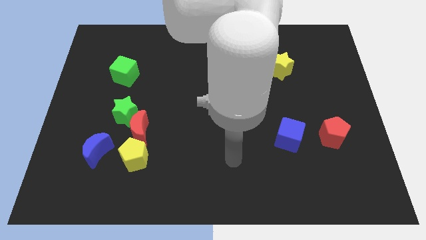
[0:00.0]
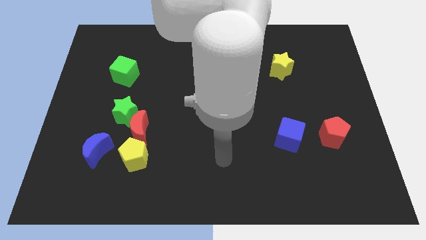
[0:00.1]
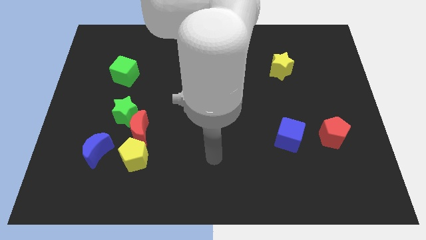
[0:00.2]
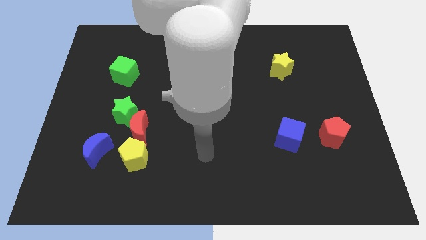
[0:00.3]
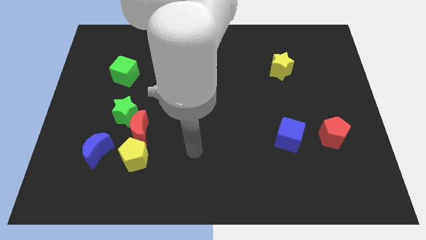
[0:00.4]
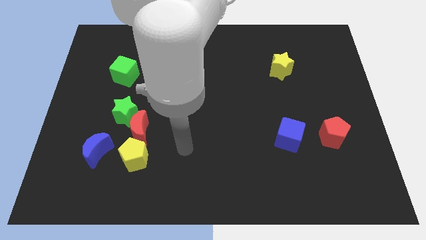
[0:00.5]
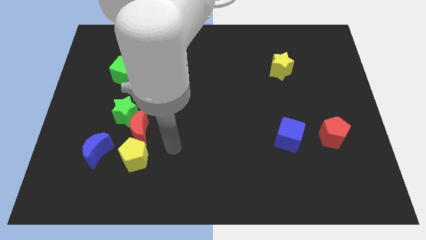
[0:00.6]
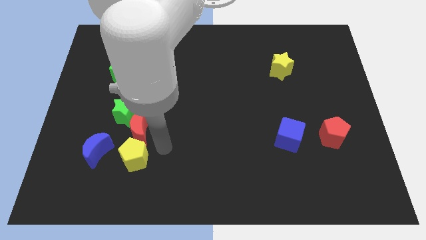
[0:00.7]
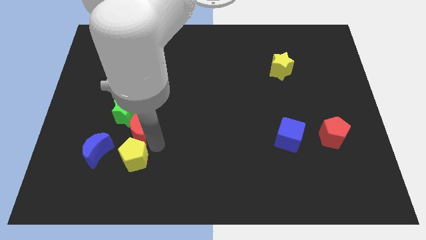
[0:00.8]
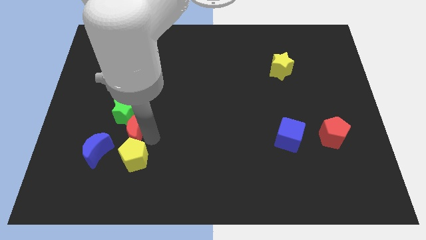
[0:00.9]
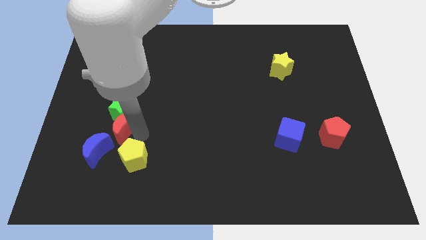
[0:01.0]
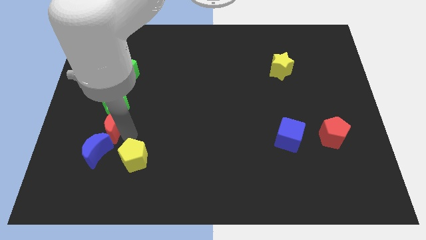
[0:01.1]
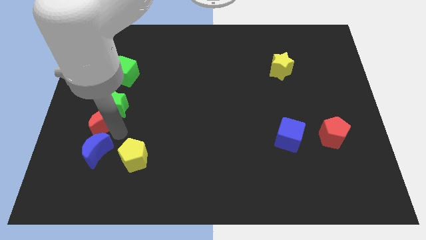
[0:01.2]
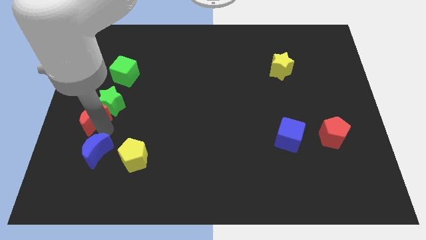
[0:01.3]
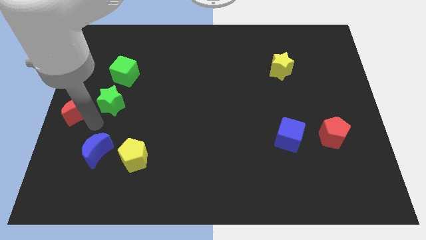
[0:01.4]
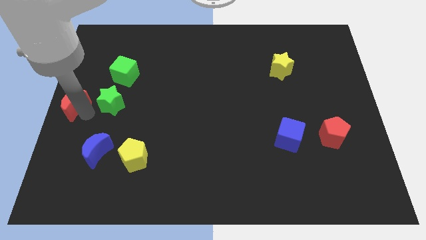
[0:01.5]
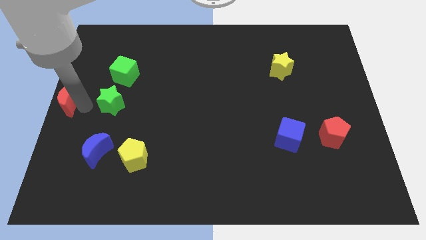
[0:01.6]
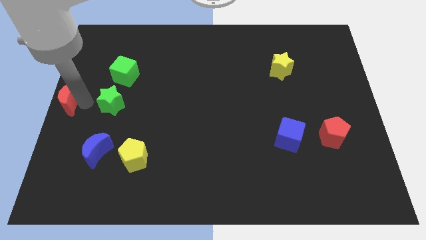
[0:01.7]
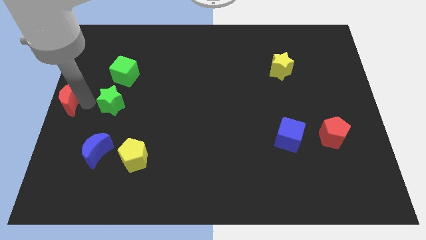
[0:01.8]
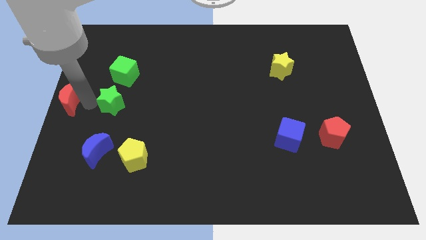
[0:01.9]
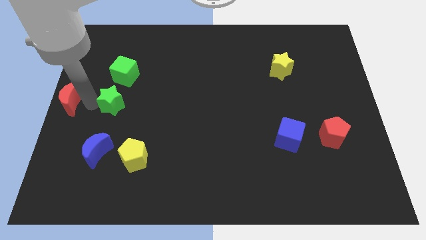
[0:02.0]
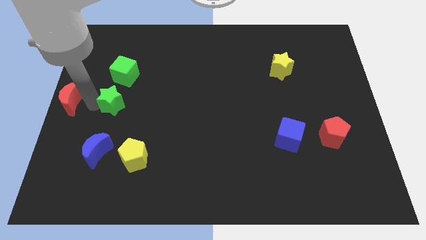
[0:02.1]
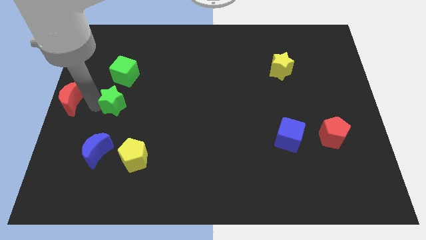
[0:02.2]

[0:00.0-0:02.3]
move the green star away from the red moon

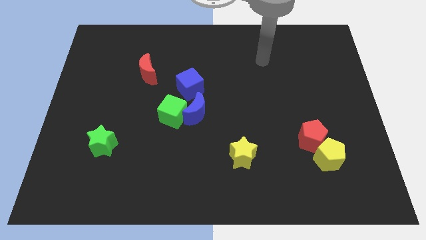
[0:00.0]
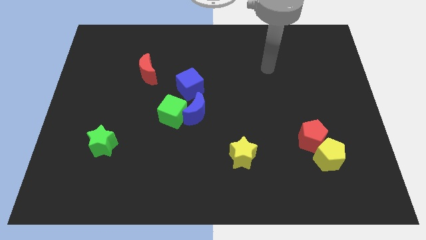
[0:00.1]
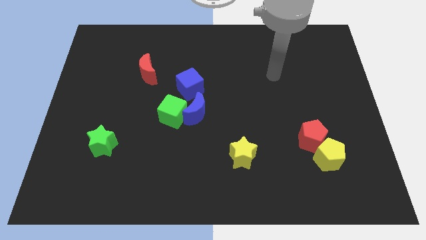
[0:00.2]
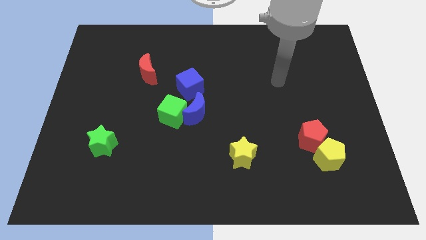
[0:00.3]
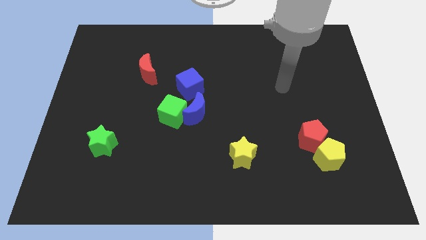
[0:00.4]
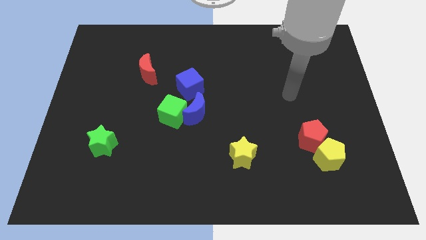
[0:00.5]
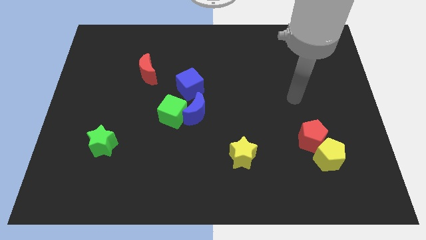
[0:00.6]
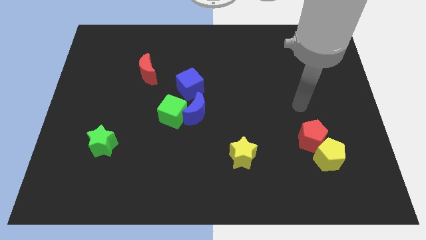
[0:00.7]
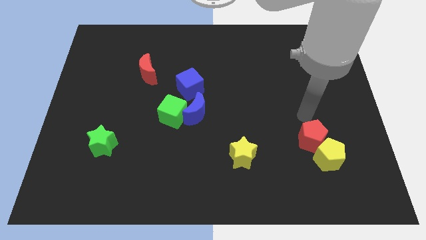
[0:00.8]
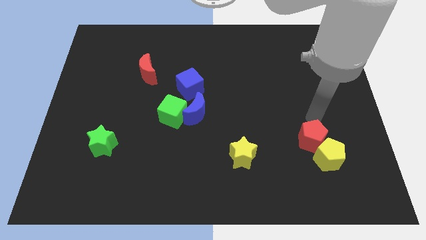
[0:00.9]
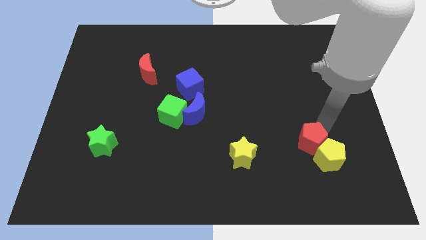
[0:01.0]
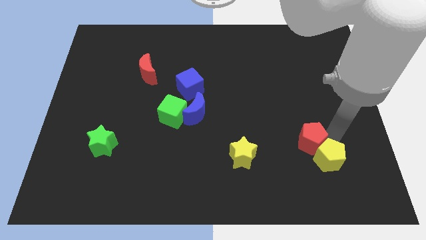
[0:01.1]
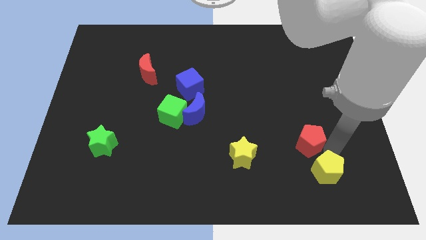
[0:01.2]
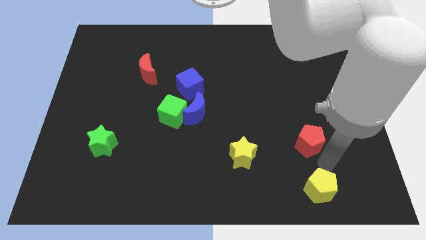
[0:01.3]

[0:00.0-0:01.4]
pull the red pentagon apart from the yellow pentagon

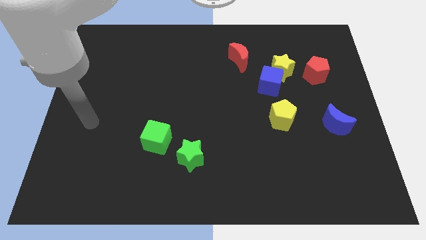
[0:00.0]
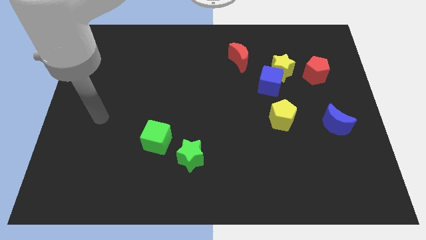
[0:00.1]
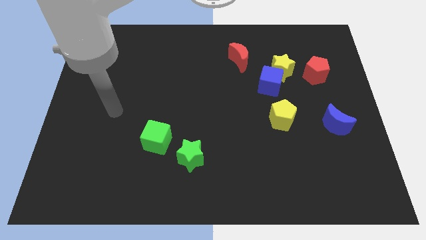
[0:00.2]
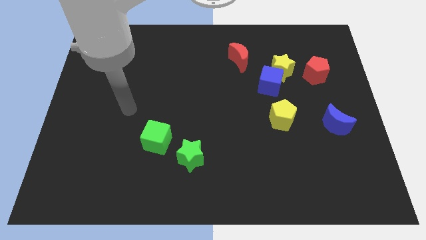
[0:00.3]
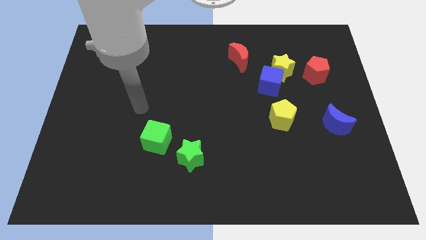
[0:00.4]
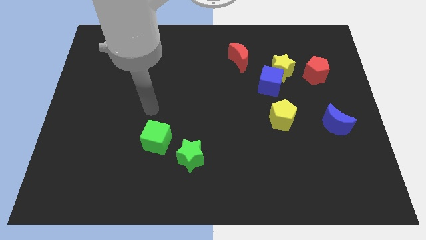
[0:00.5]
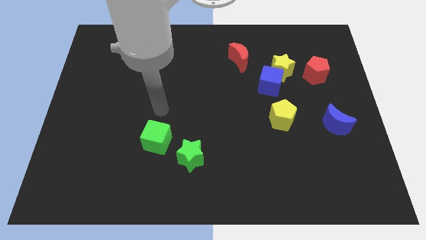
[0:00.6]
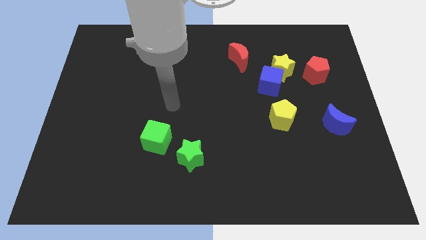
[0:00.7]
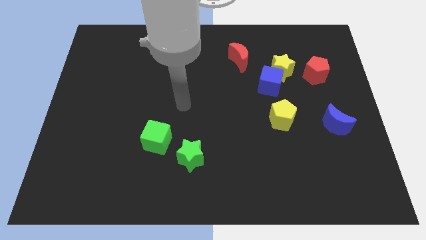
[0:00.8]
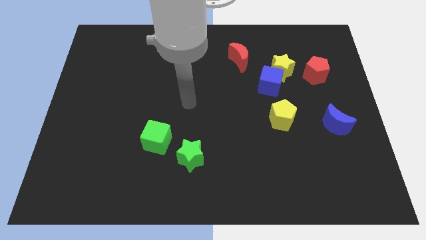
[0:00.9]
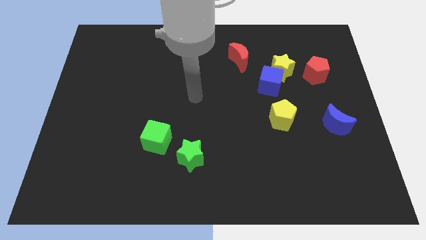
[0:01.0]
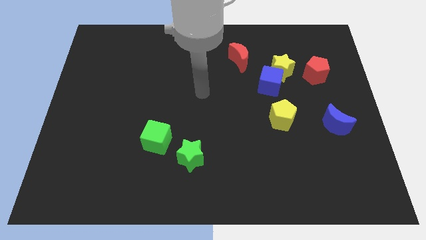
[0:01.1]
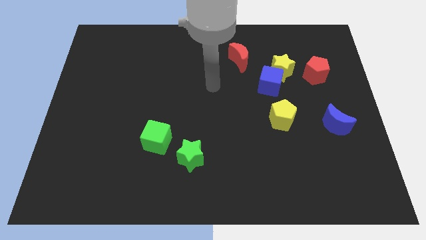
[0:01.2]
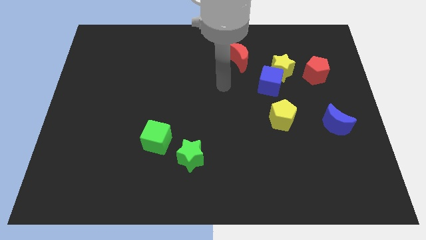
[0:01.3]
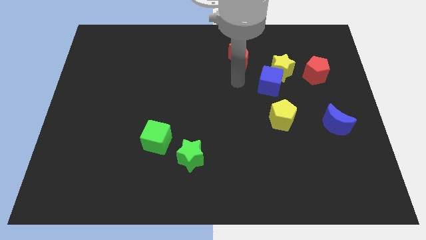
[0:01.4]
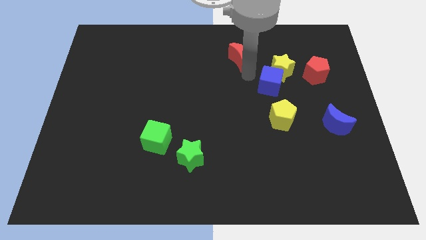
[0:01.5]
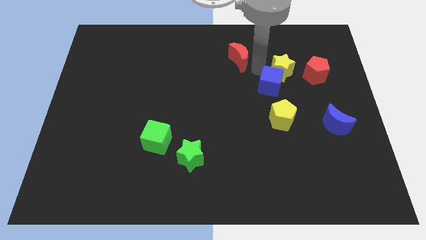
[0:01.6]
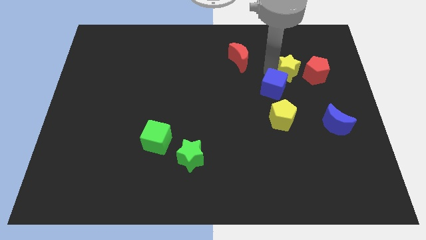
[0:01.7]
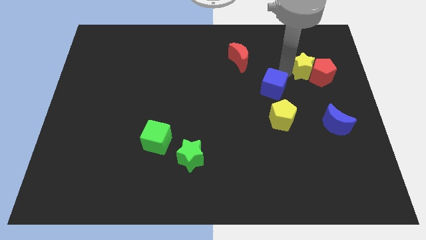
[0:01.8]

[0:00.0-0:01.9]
separate the blue cube from the yellow star

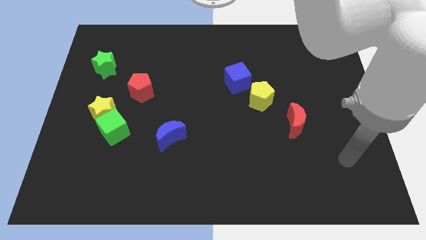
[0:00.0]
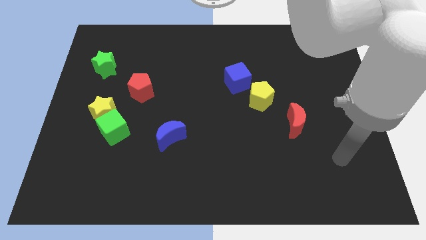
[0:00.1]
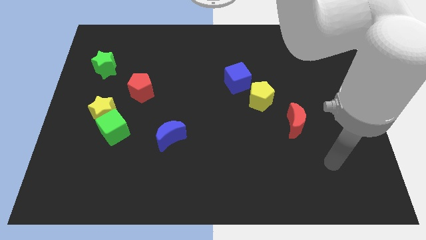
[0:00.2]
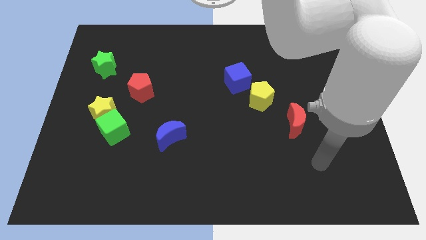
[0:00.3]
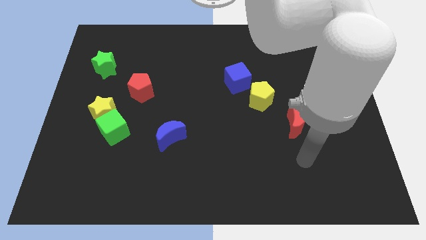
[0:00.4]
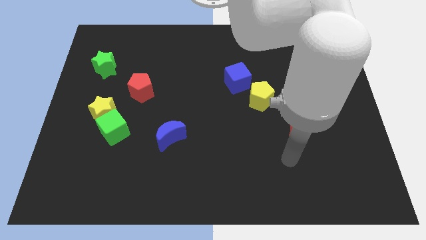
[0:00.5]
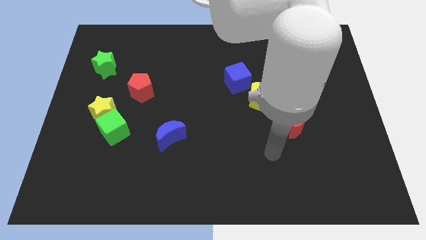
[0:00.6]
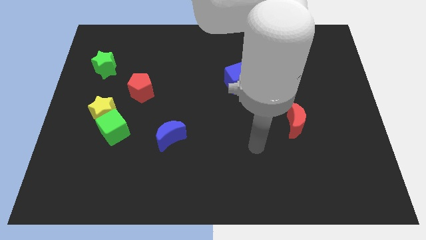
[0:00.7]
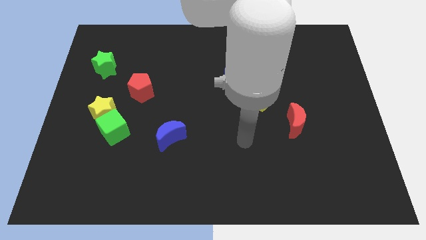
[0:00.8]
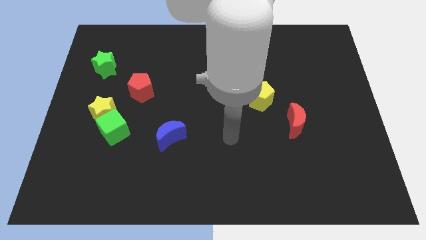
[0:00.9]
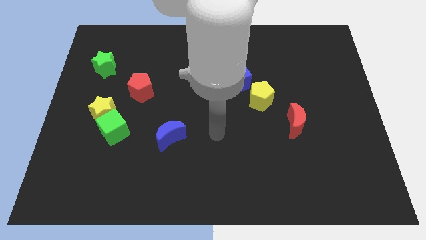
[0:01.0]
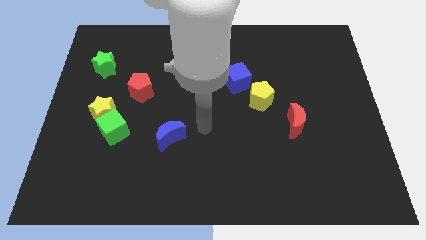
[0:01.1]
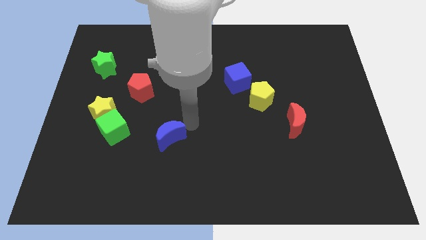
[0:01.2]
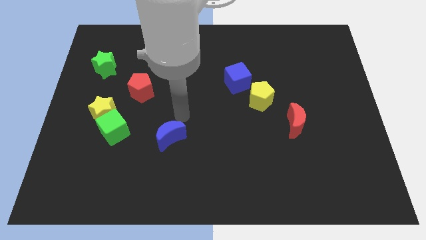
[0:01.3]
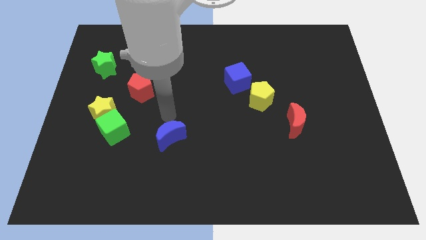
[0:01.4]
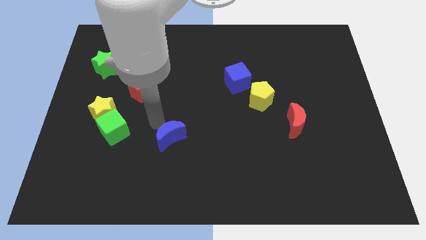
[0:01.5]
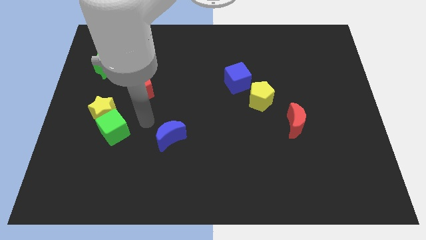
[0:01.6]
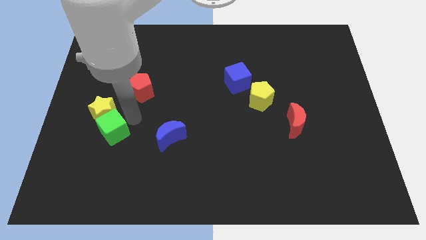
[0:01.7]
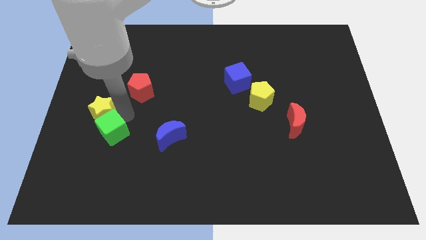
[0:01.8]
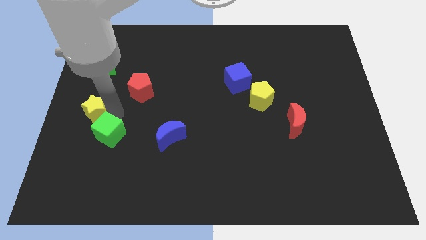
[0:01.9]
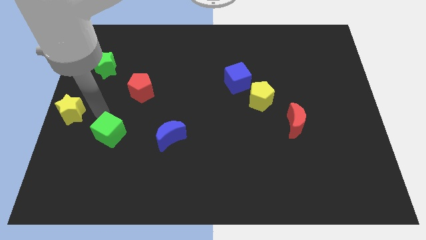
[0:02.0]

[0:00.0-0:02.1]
pull the green cube apart from the yellow star

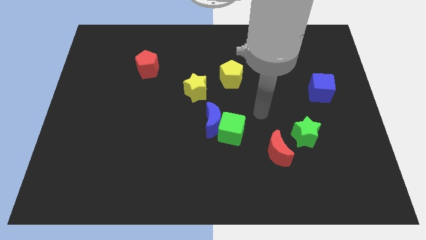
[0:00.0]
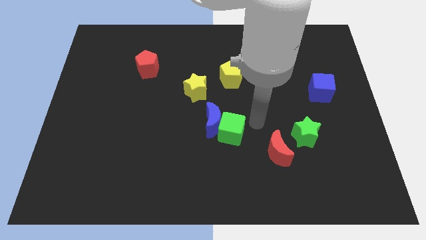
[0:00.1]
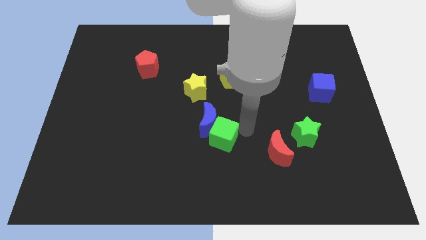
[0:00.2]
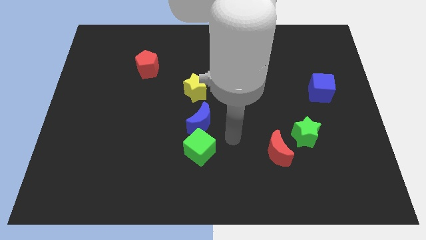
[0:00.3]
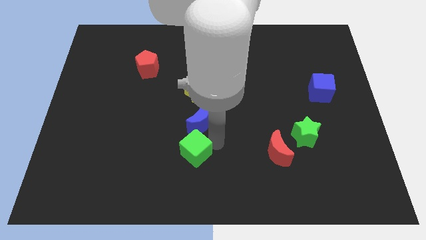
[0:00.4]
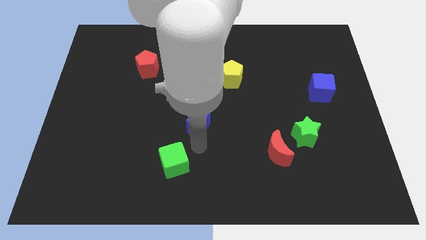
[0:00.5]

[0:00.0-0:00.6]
pull the blue moon apart from the green cube

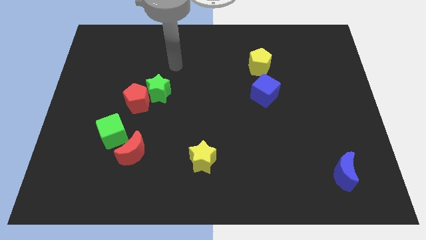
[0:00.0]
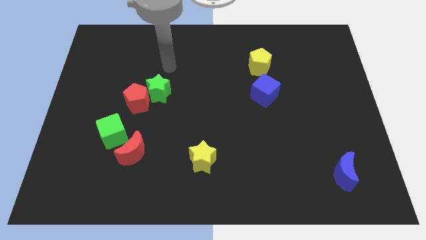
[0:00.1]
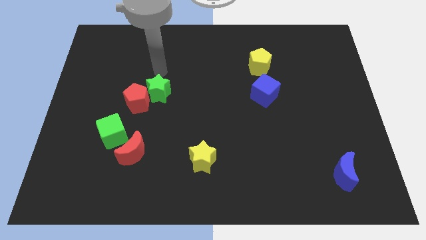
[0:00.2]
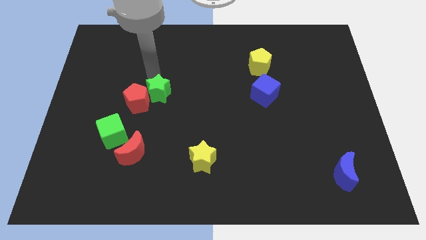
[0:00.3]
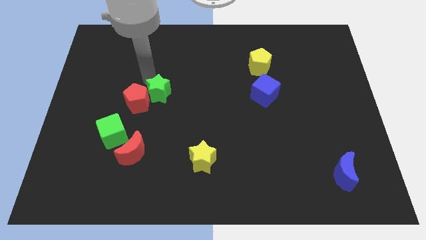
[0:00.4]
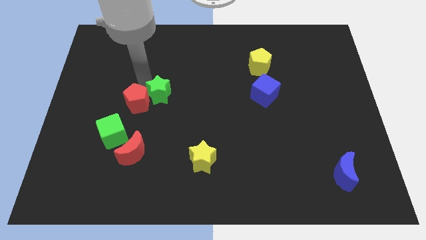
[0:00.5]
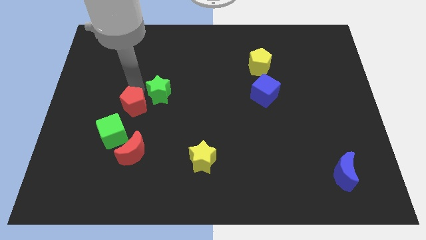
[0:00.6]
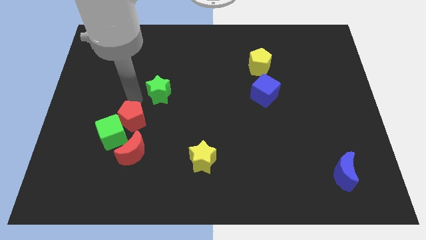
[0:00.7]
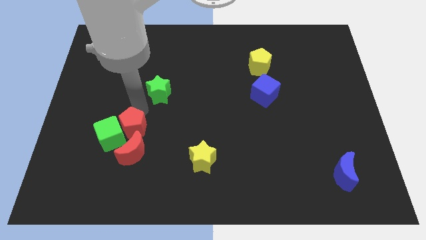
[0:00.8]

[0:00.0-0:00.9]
move the green star away from the red pentagon

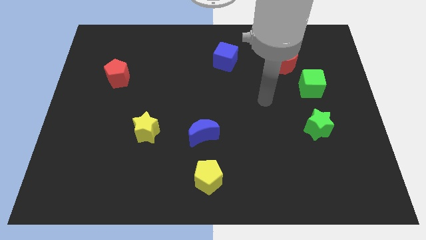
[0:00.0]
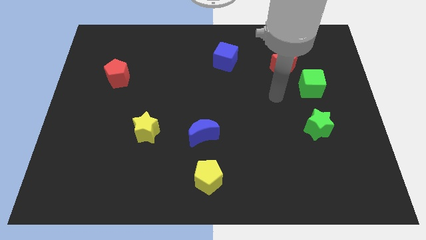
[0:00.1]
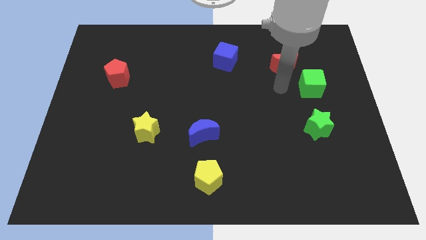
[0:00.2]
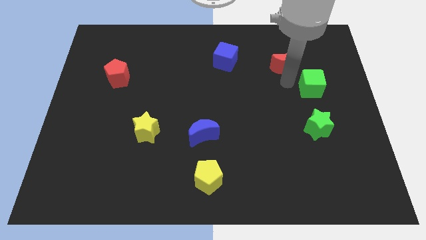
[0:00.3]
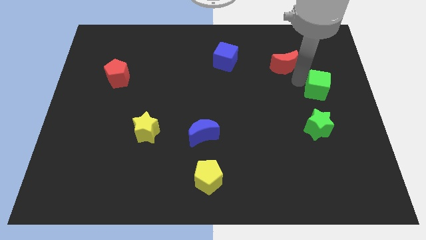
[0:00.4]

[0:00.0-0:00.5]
separate the red moon from the green cube
